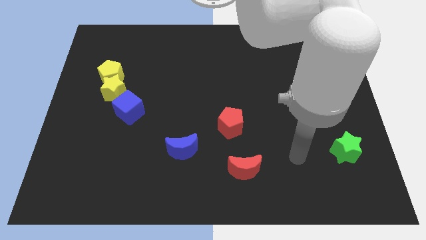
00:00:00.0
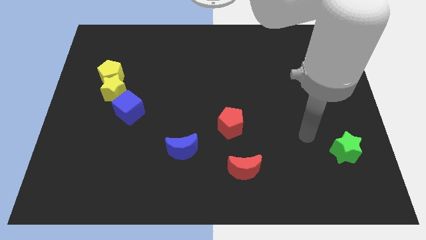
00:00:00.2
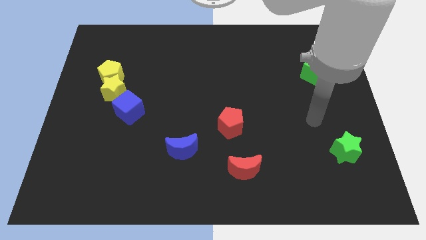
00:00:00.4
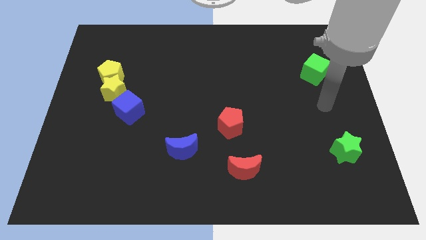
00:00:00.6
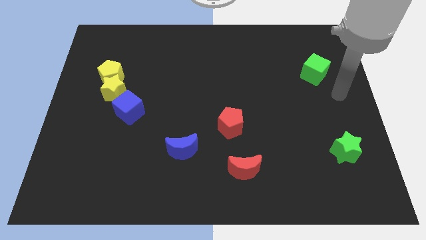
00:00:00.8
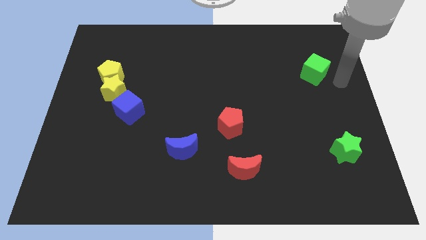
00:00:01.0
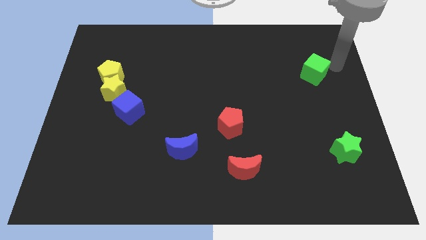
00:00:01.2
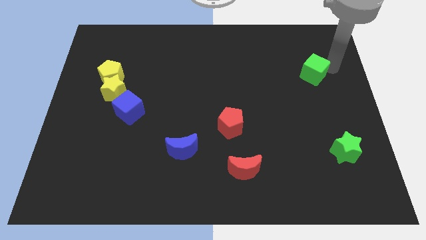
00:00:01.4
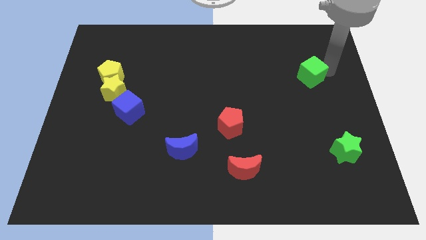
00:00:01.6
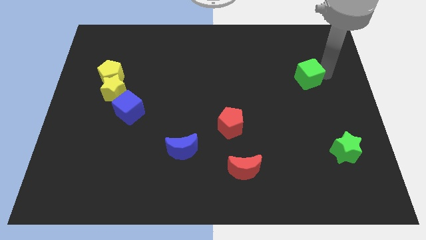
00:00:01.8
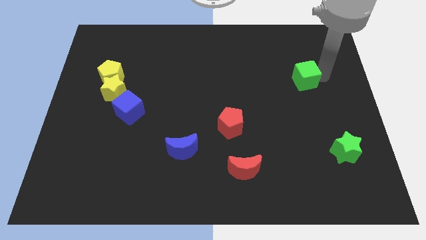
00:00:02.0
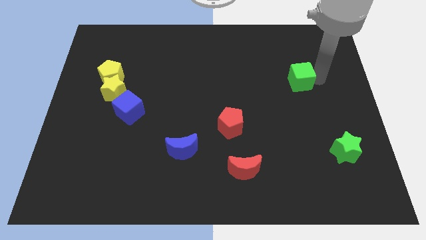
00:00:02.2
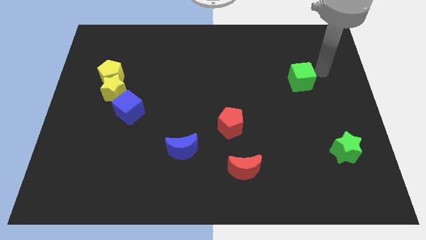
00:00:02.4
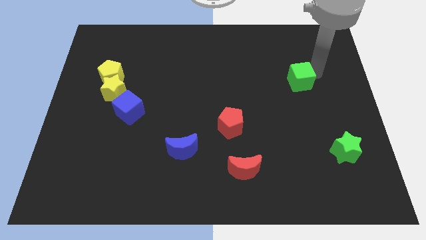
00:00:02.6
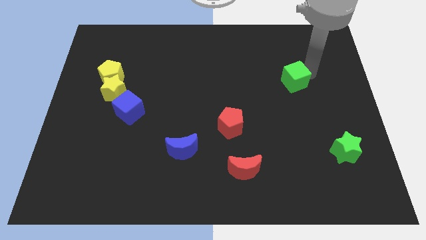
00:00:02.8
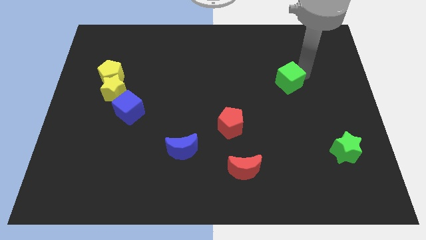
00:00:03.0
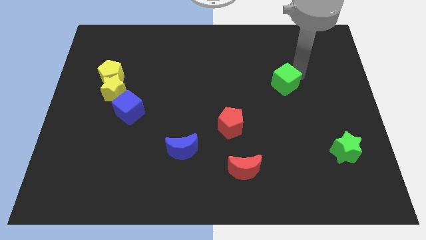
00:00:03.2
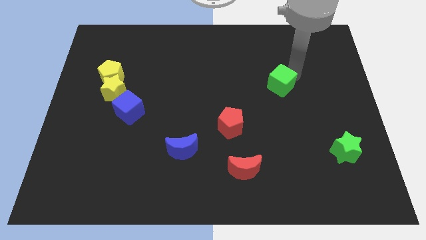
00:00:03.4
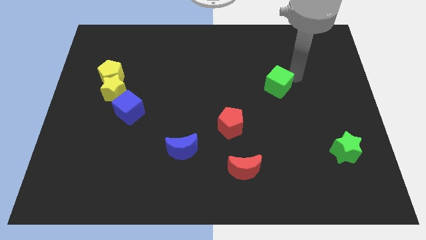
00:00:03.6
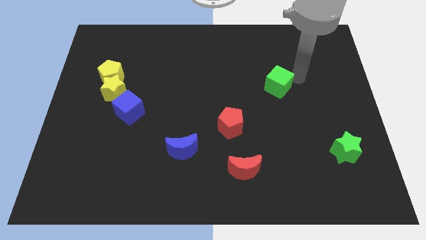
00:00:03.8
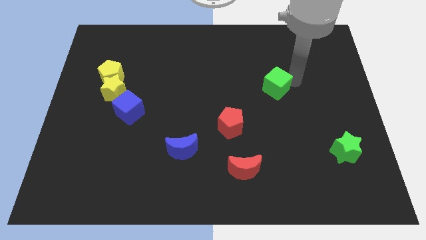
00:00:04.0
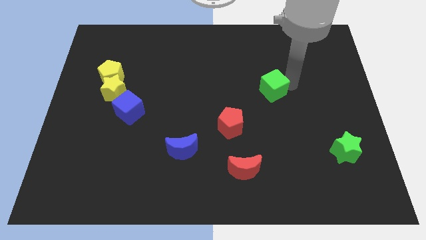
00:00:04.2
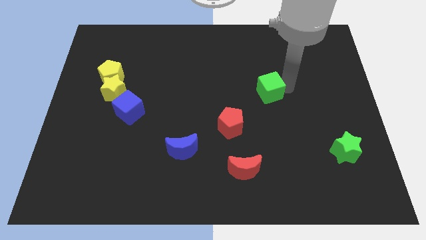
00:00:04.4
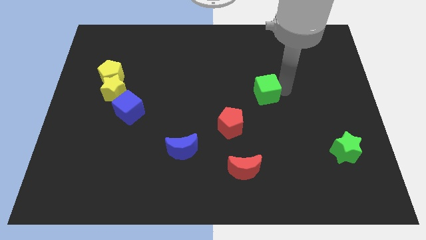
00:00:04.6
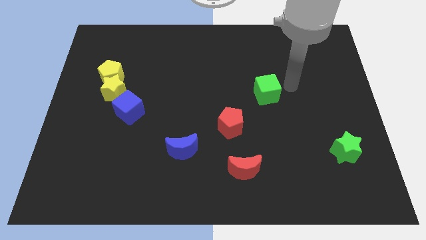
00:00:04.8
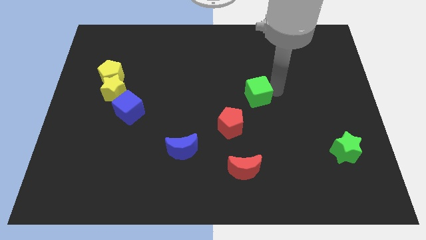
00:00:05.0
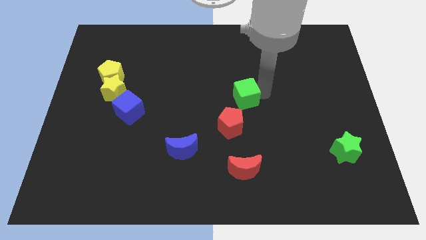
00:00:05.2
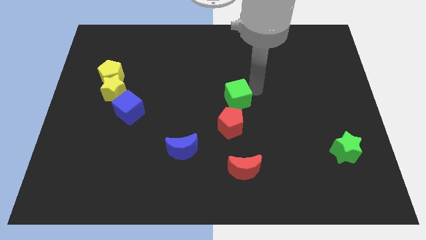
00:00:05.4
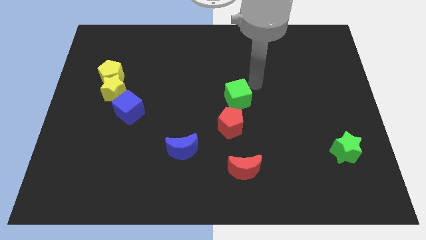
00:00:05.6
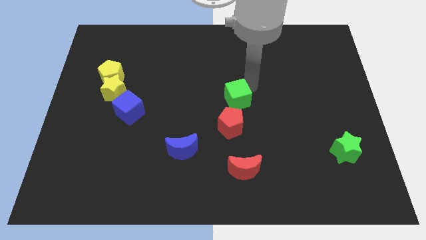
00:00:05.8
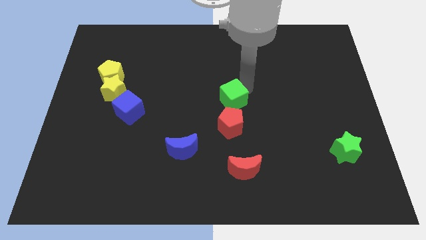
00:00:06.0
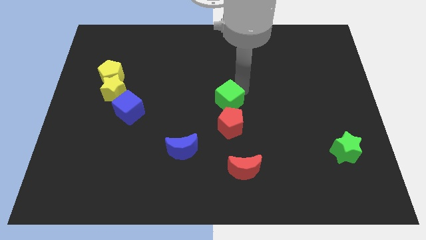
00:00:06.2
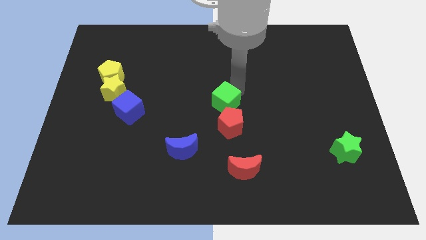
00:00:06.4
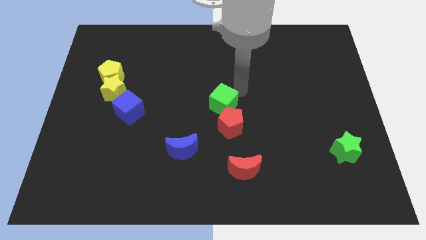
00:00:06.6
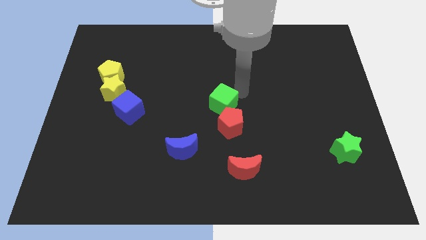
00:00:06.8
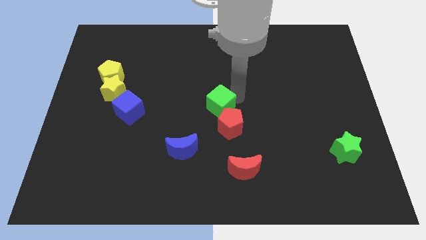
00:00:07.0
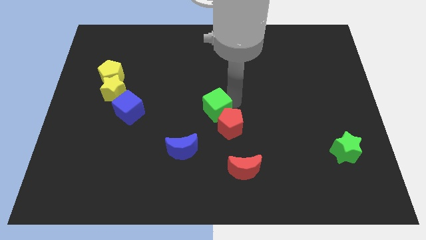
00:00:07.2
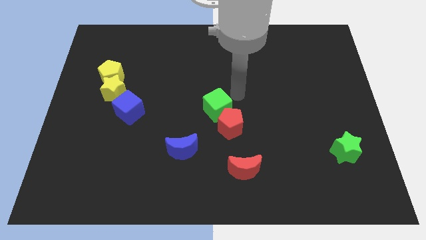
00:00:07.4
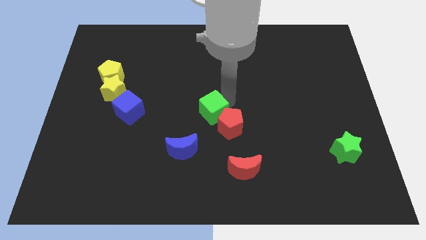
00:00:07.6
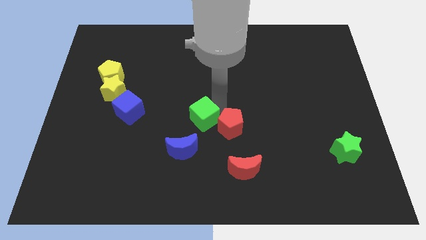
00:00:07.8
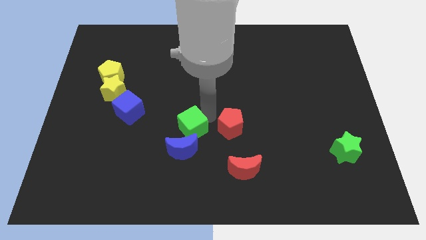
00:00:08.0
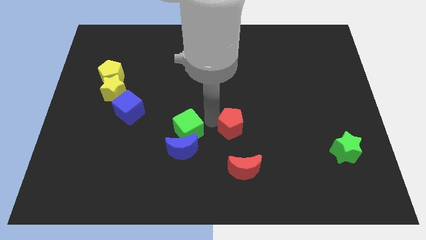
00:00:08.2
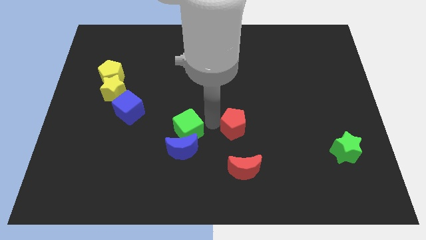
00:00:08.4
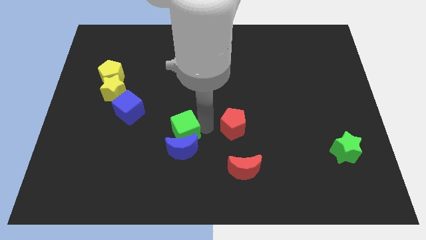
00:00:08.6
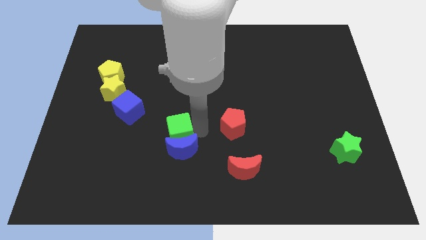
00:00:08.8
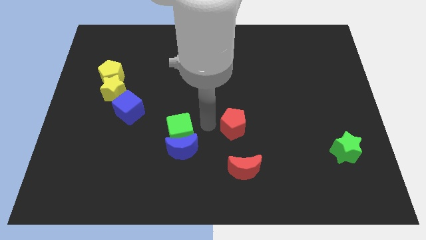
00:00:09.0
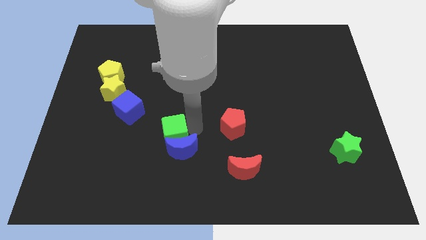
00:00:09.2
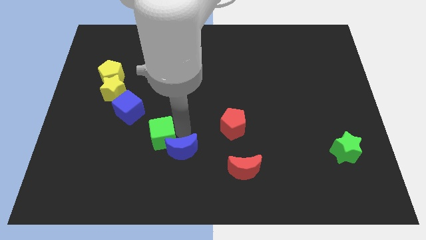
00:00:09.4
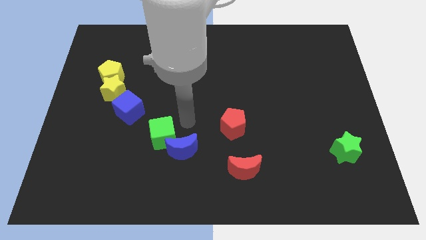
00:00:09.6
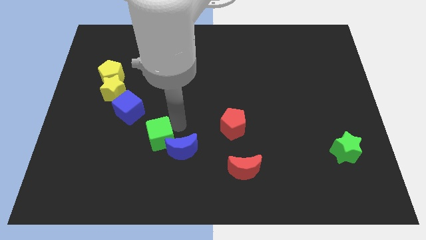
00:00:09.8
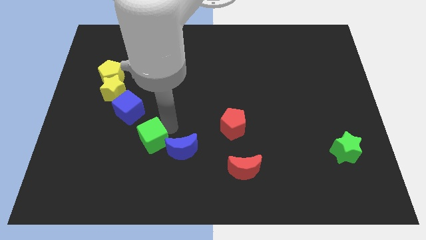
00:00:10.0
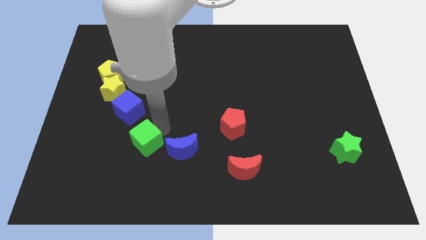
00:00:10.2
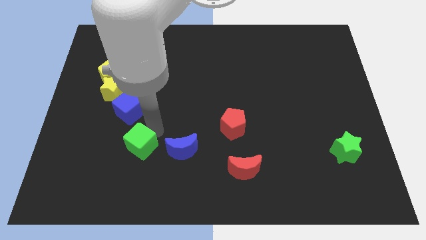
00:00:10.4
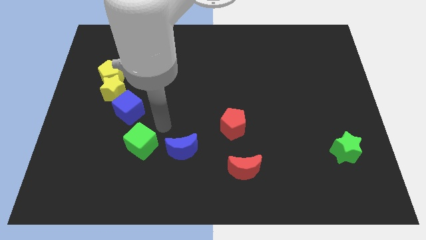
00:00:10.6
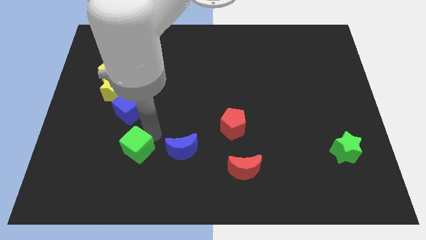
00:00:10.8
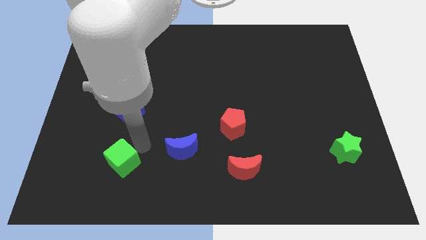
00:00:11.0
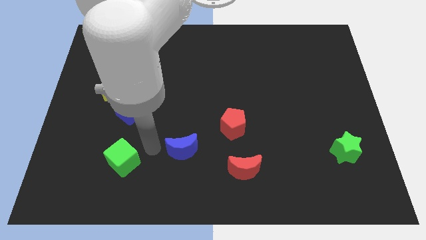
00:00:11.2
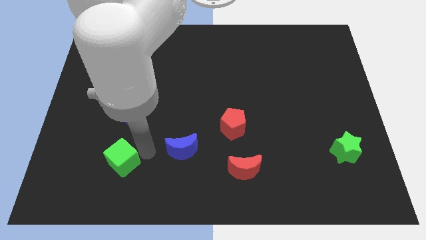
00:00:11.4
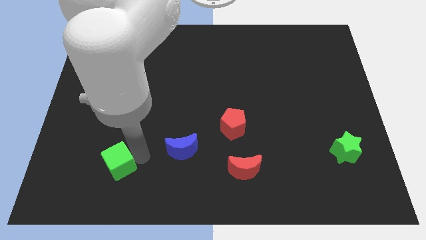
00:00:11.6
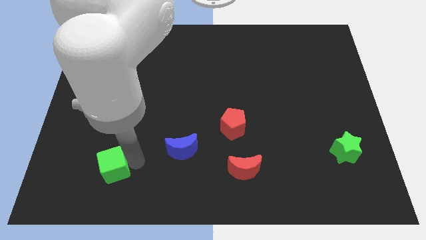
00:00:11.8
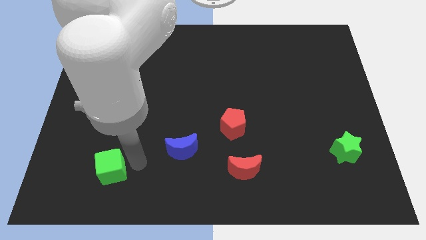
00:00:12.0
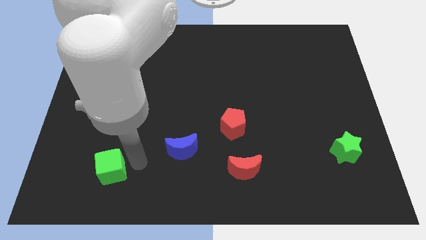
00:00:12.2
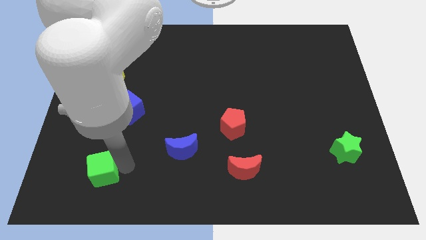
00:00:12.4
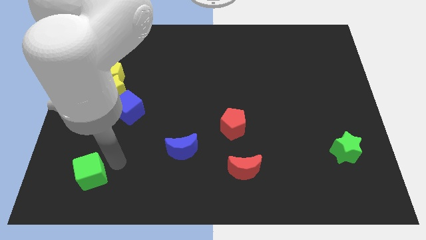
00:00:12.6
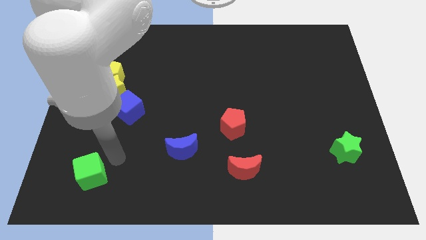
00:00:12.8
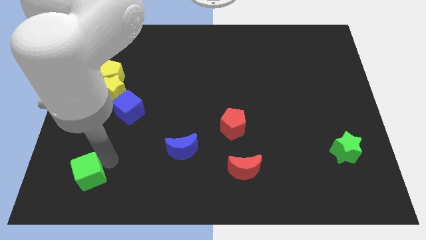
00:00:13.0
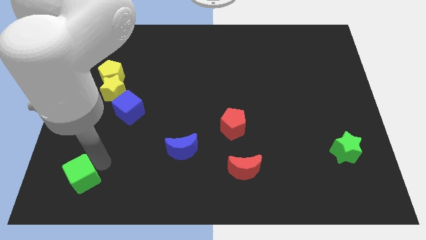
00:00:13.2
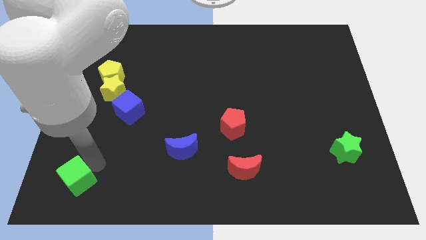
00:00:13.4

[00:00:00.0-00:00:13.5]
put the green cube to the lower left corner

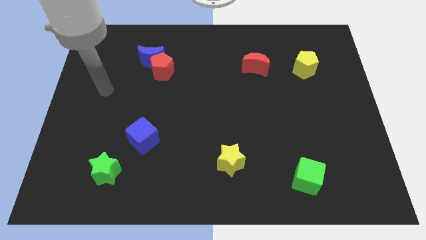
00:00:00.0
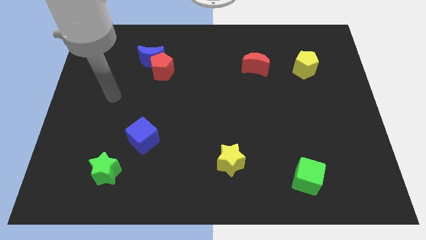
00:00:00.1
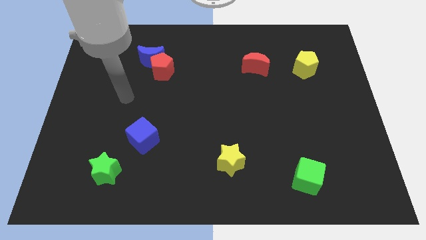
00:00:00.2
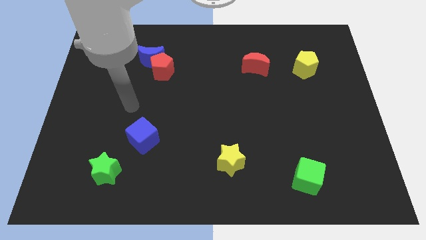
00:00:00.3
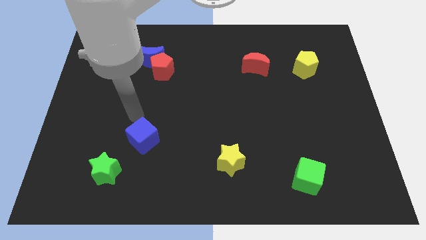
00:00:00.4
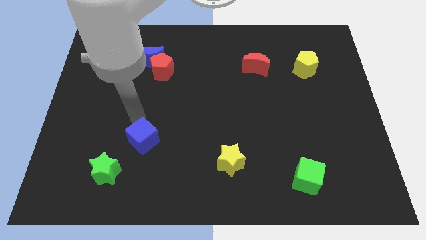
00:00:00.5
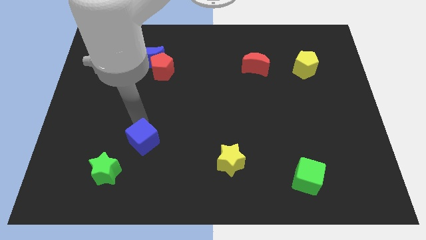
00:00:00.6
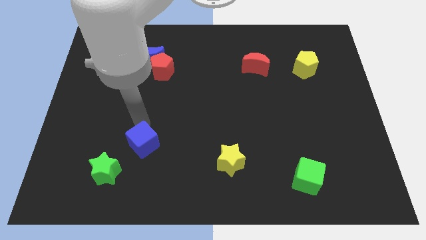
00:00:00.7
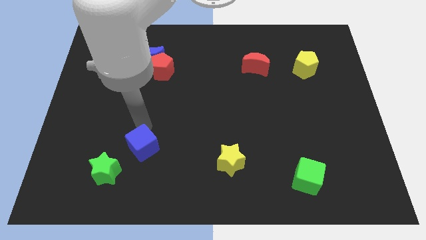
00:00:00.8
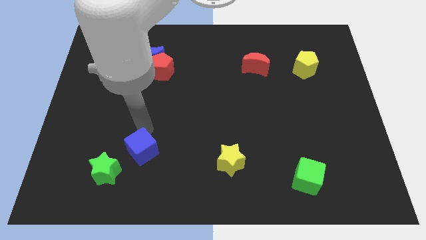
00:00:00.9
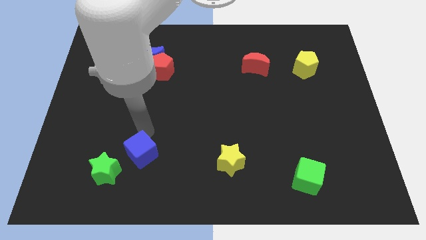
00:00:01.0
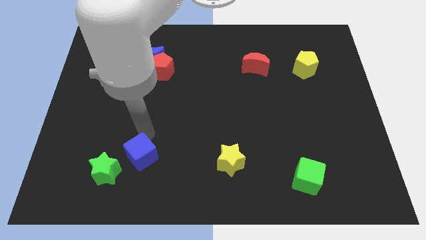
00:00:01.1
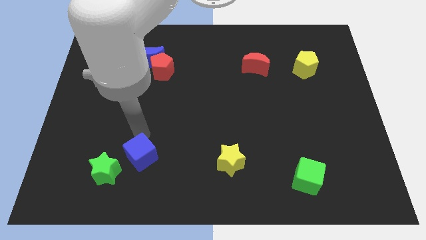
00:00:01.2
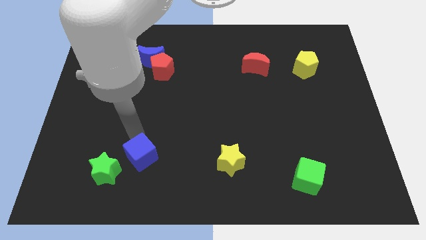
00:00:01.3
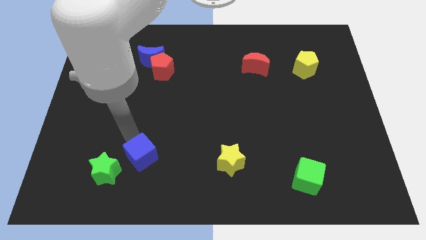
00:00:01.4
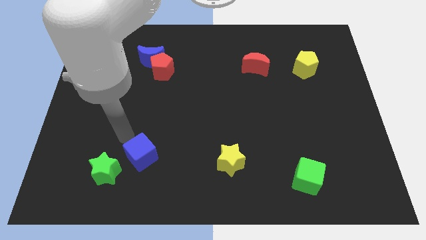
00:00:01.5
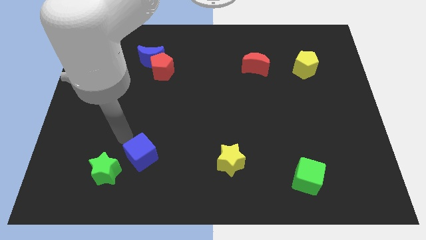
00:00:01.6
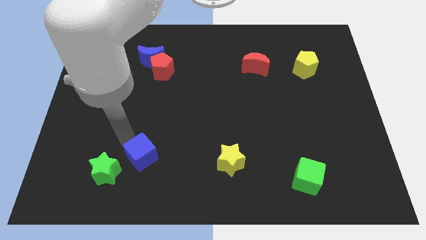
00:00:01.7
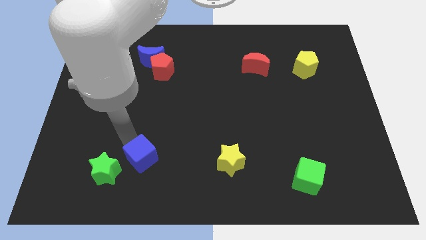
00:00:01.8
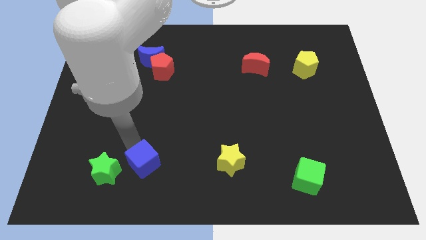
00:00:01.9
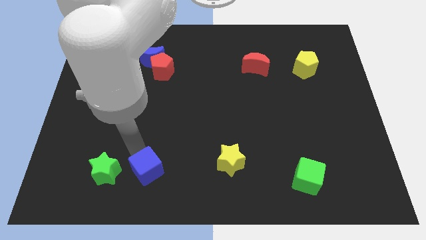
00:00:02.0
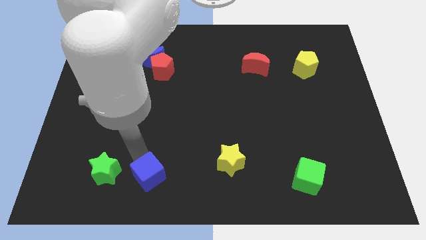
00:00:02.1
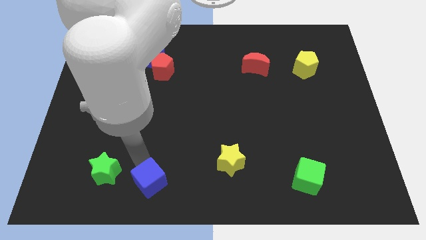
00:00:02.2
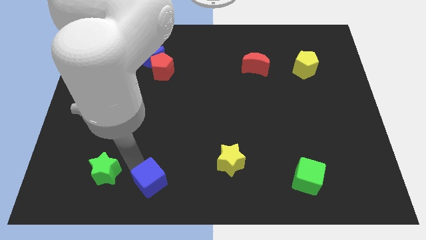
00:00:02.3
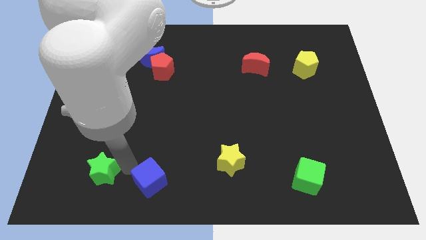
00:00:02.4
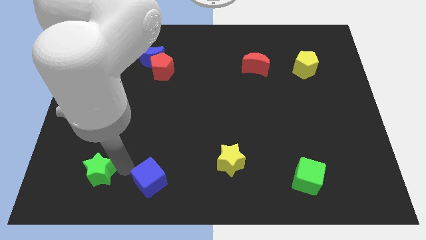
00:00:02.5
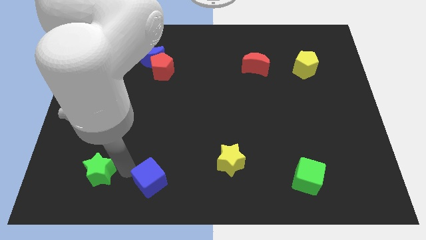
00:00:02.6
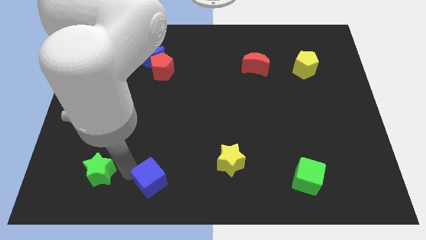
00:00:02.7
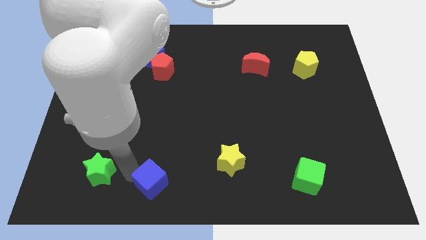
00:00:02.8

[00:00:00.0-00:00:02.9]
move the blue cube to the bottom side
